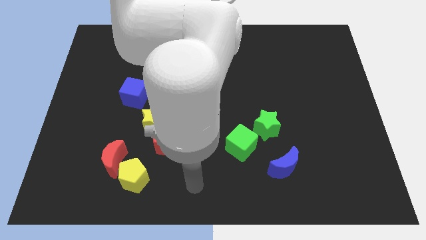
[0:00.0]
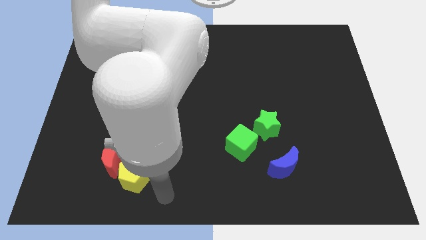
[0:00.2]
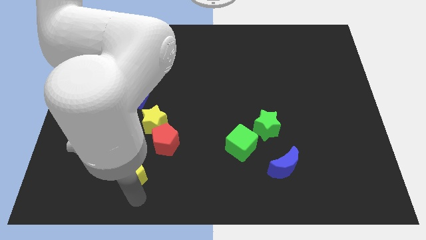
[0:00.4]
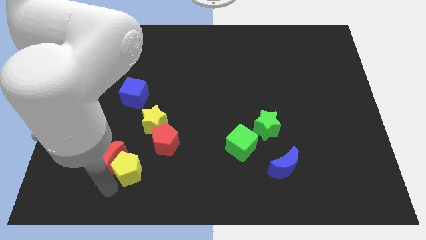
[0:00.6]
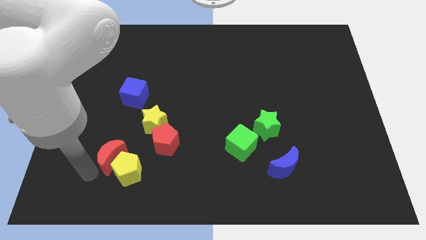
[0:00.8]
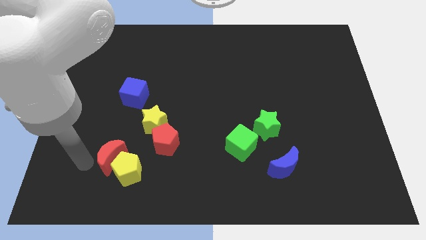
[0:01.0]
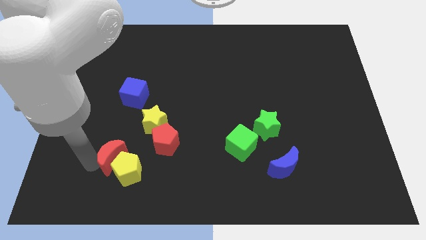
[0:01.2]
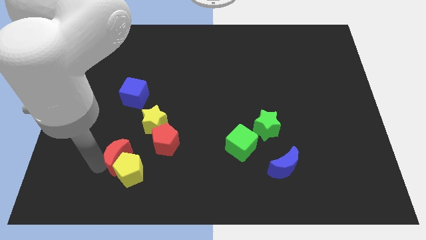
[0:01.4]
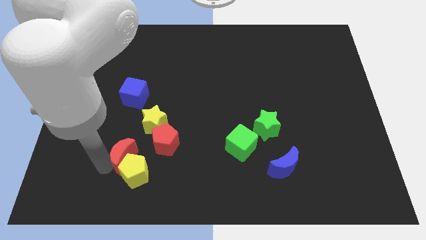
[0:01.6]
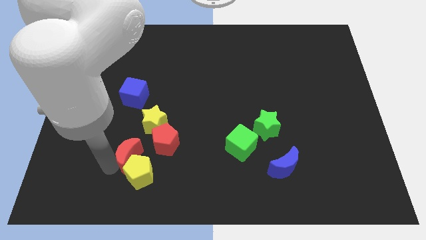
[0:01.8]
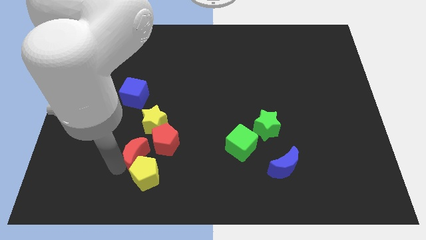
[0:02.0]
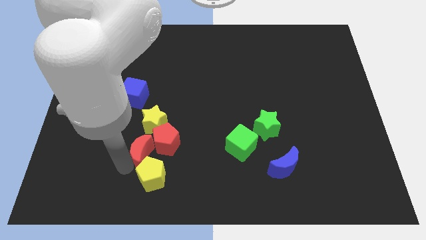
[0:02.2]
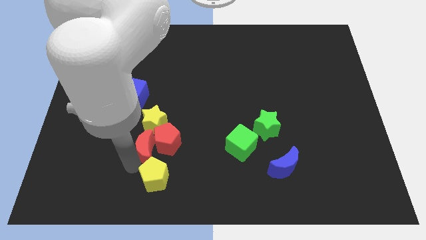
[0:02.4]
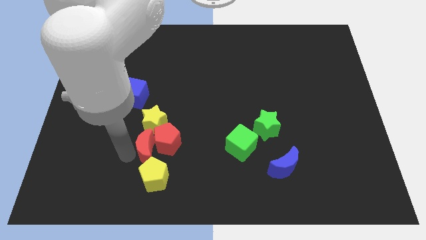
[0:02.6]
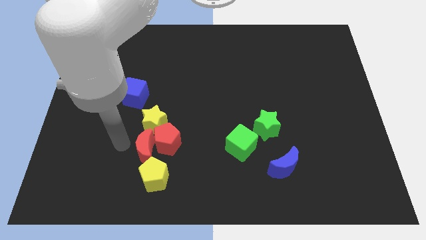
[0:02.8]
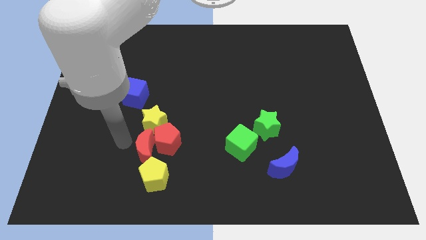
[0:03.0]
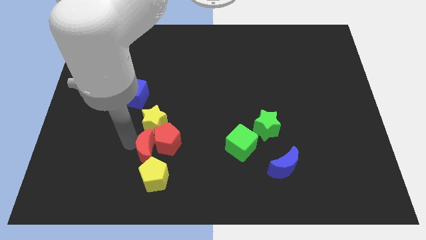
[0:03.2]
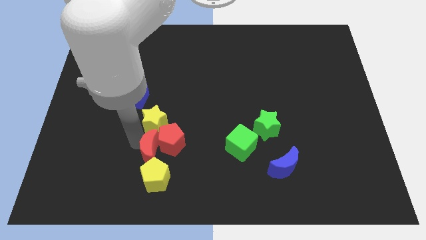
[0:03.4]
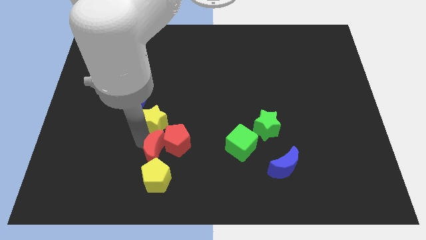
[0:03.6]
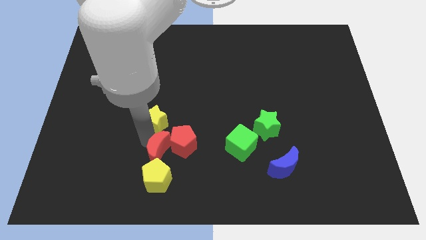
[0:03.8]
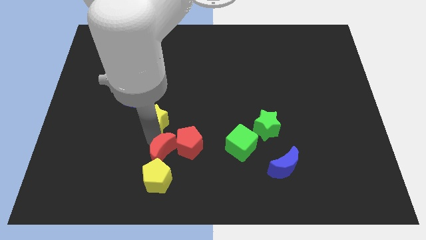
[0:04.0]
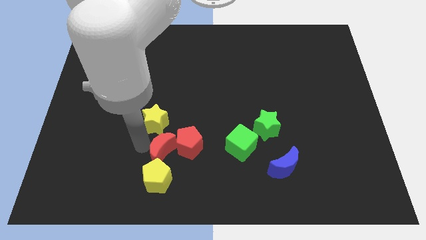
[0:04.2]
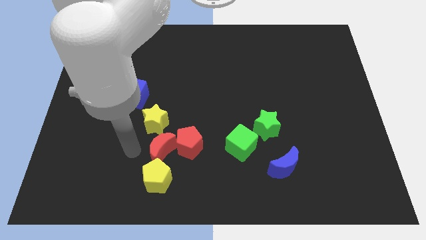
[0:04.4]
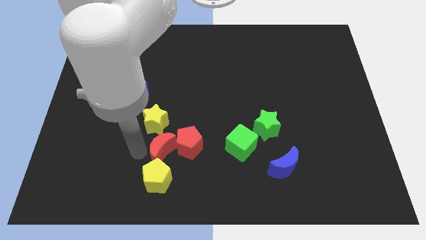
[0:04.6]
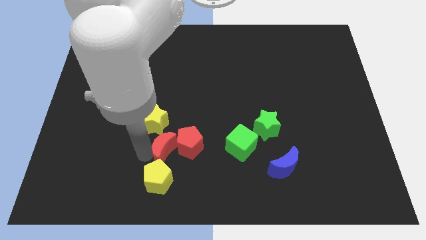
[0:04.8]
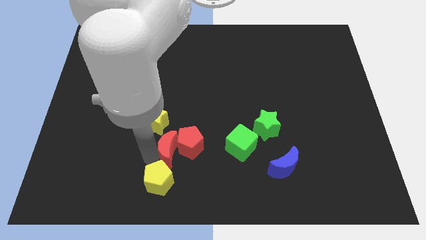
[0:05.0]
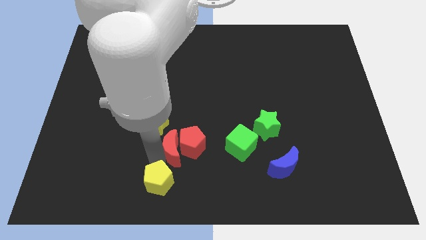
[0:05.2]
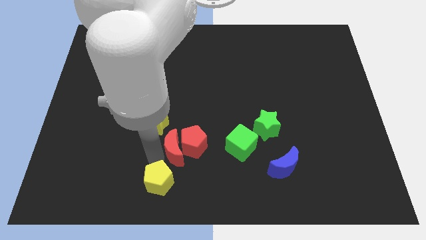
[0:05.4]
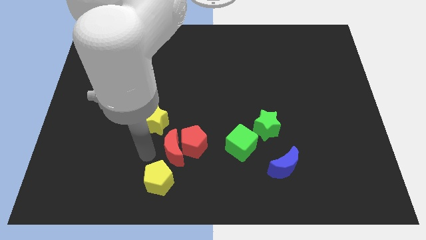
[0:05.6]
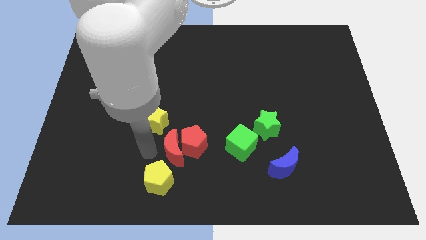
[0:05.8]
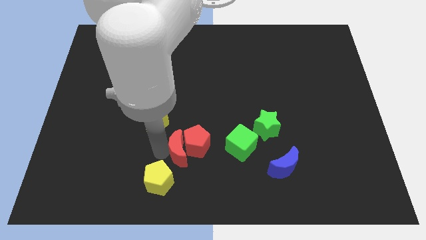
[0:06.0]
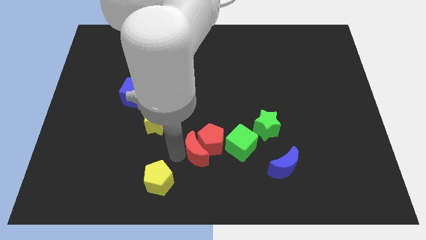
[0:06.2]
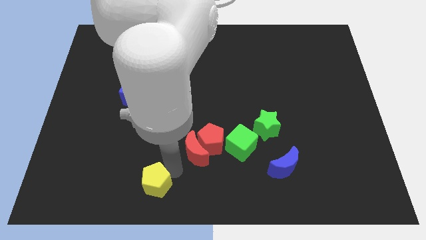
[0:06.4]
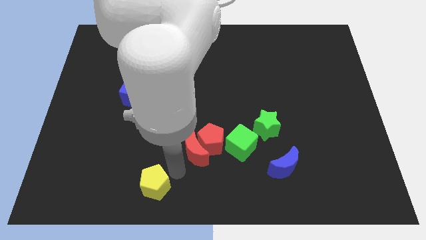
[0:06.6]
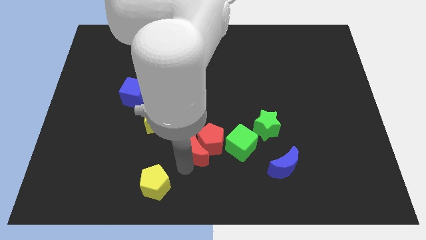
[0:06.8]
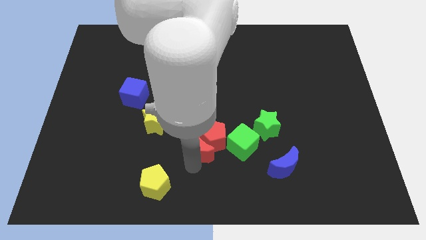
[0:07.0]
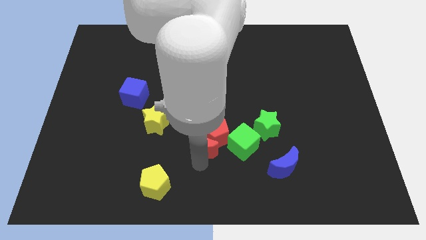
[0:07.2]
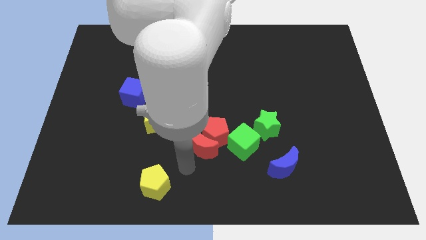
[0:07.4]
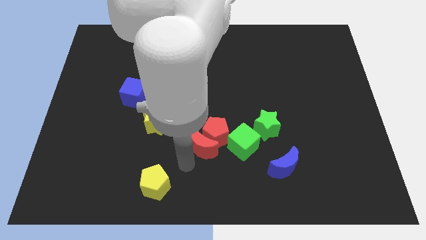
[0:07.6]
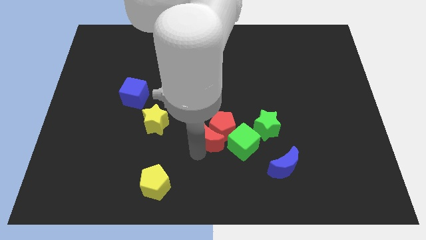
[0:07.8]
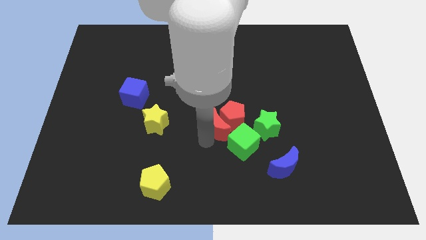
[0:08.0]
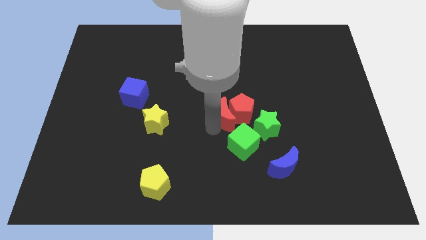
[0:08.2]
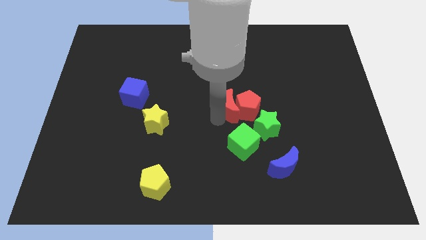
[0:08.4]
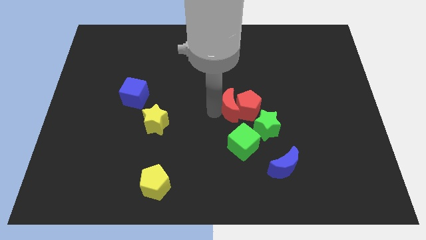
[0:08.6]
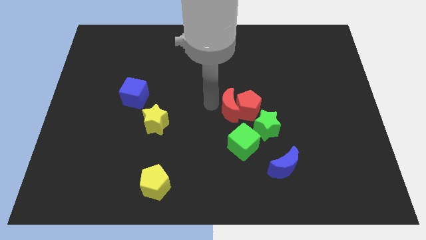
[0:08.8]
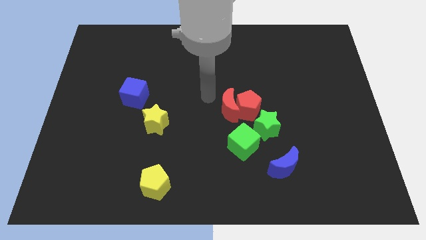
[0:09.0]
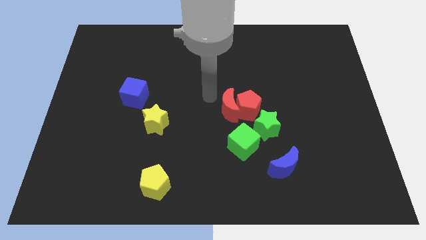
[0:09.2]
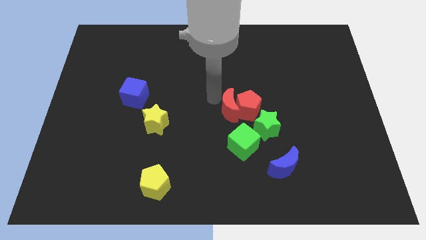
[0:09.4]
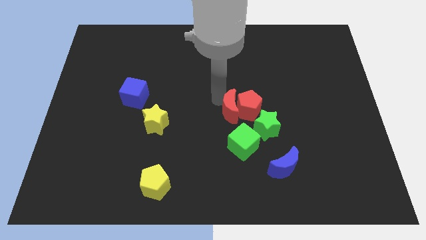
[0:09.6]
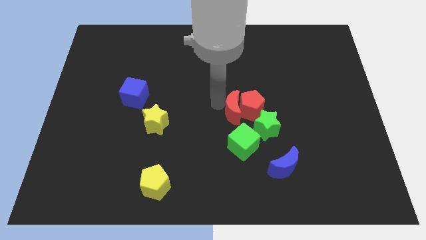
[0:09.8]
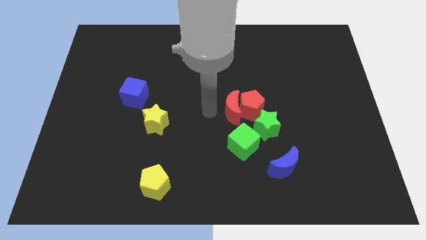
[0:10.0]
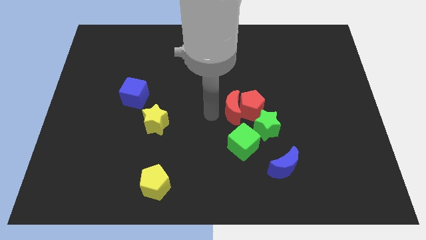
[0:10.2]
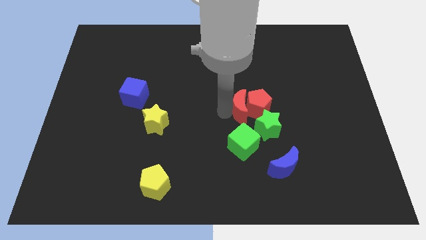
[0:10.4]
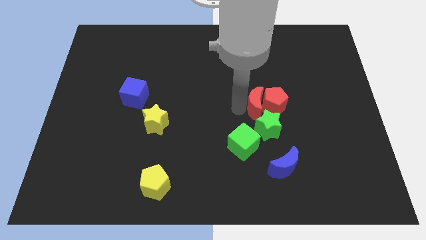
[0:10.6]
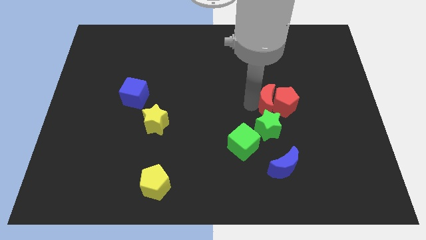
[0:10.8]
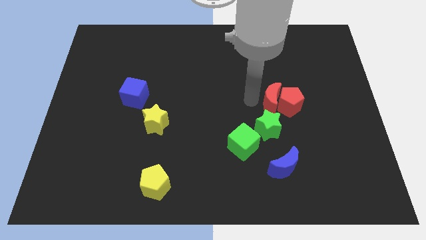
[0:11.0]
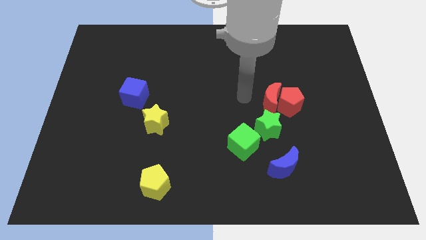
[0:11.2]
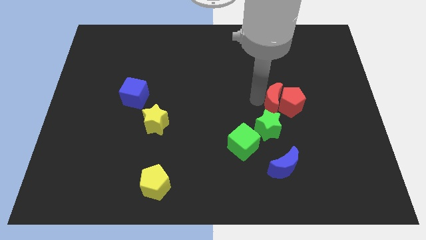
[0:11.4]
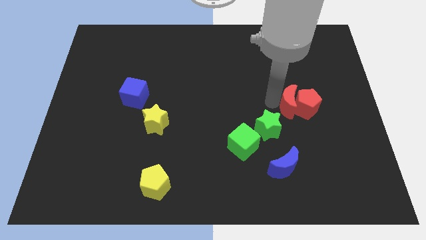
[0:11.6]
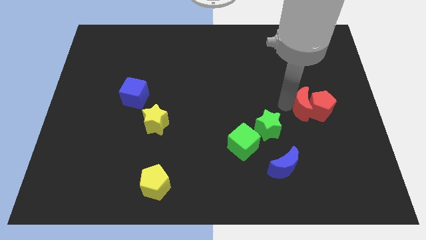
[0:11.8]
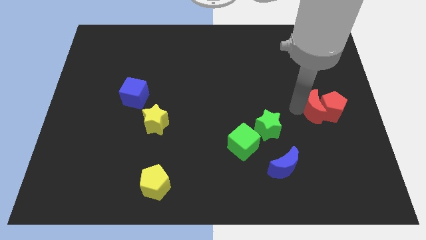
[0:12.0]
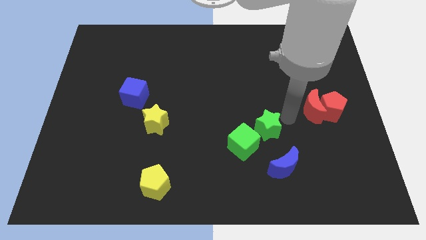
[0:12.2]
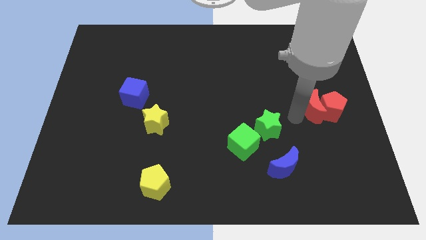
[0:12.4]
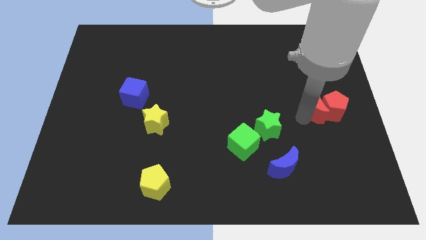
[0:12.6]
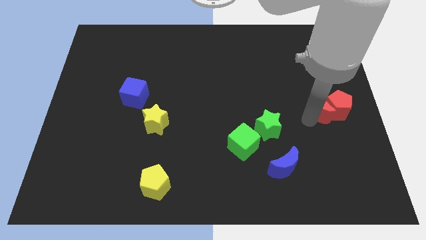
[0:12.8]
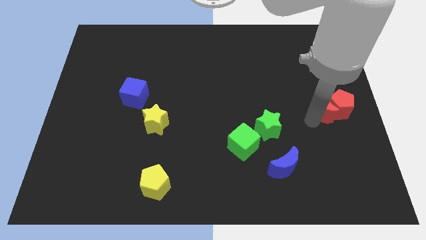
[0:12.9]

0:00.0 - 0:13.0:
push the red moon to the right side of the board

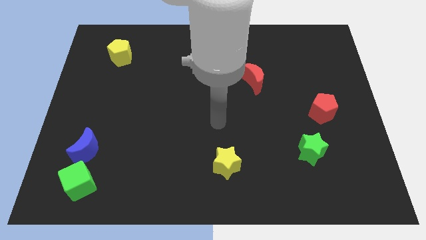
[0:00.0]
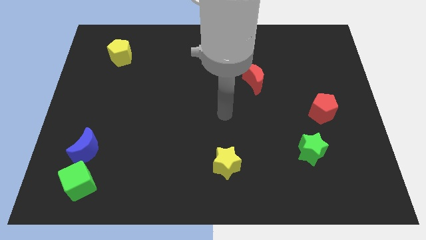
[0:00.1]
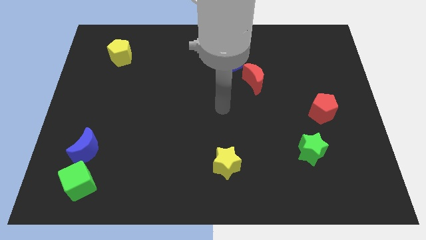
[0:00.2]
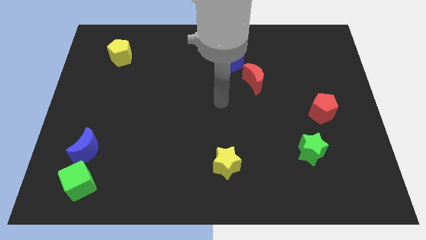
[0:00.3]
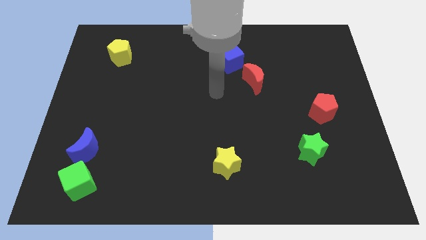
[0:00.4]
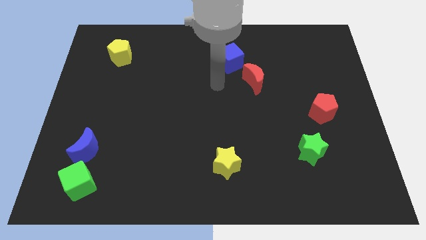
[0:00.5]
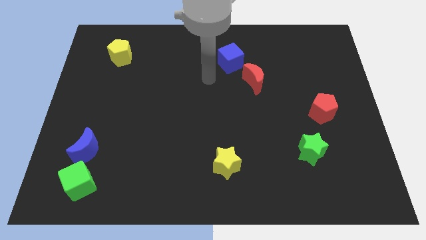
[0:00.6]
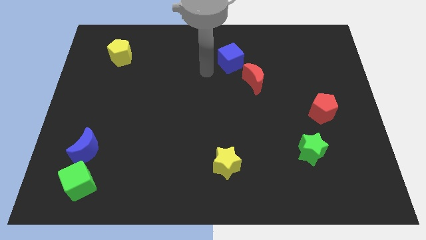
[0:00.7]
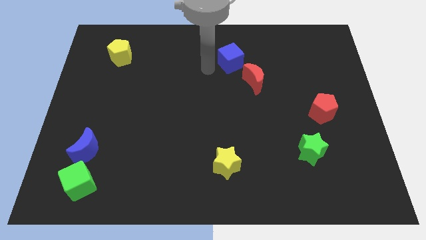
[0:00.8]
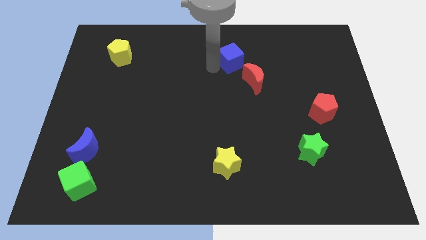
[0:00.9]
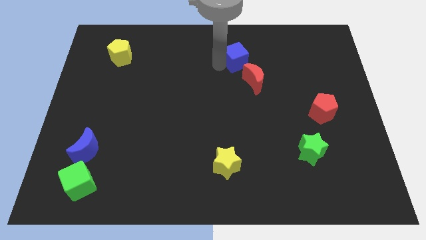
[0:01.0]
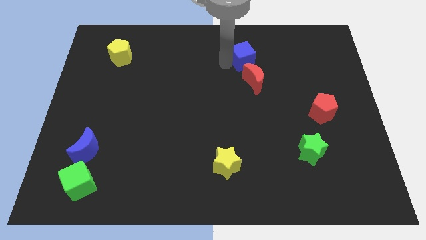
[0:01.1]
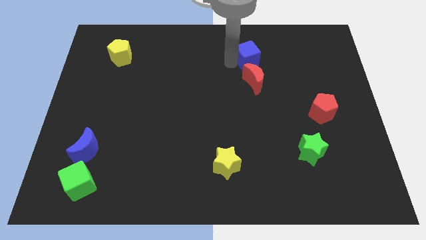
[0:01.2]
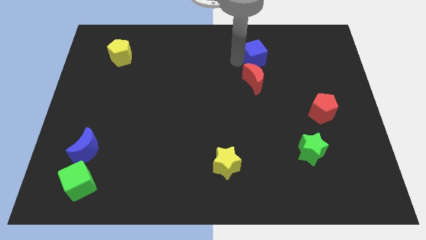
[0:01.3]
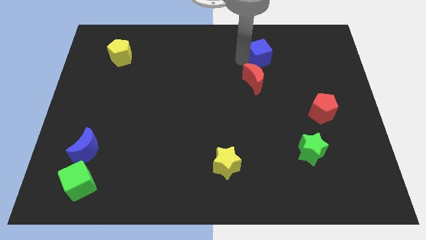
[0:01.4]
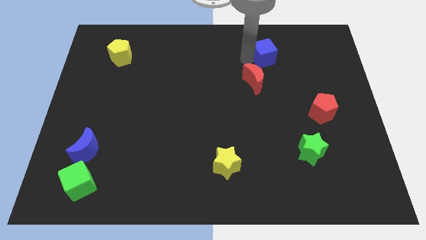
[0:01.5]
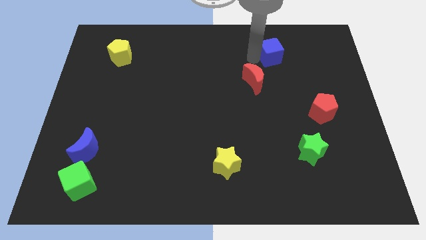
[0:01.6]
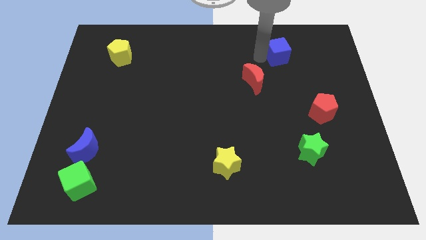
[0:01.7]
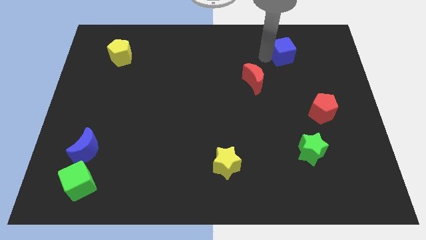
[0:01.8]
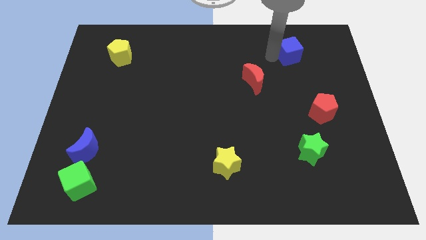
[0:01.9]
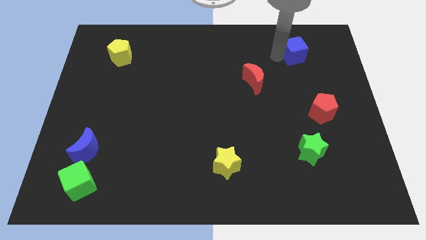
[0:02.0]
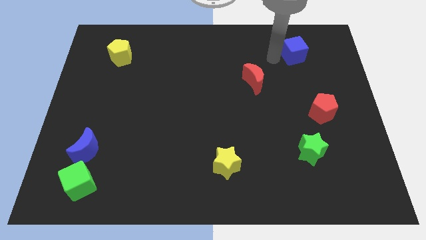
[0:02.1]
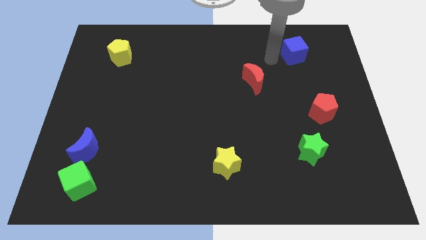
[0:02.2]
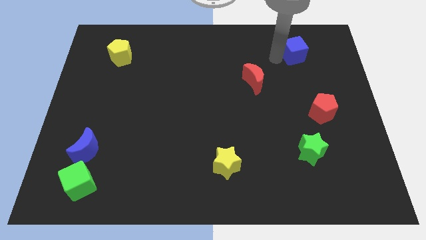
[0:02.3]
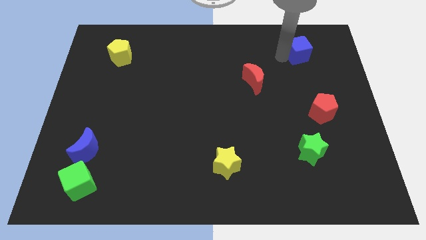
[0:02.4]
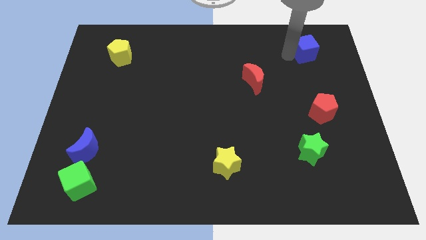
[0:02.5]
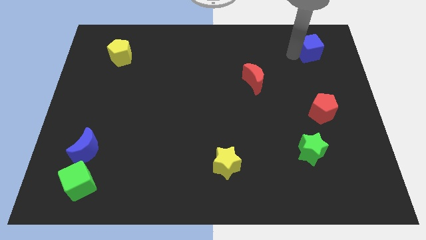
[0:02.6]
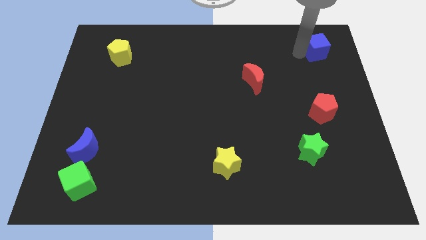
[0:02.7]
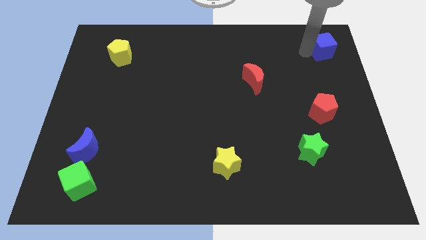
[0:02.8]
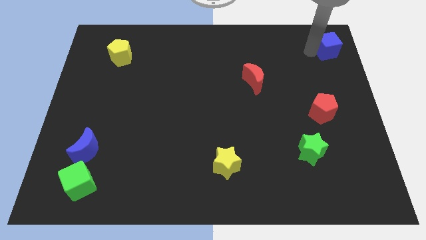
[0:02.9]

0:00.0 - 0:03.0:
push the blue cube to the top right of the board
